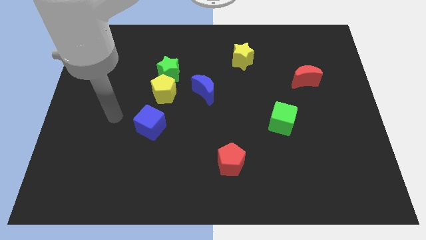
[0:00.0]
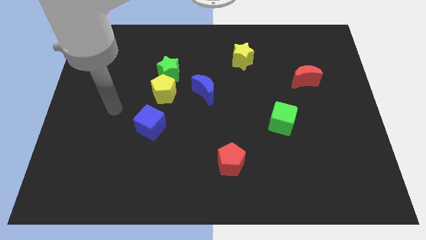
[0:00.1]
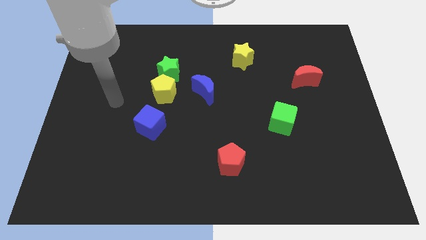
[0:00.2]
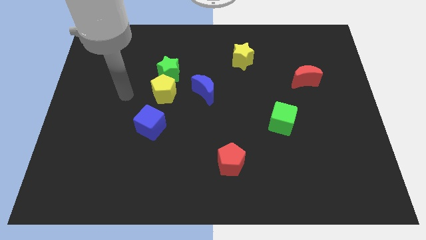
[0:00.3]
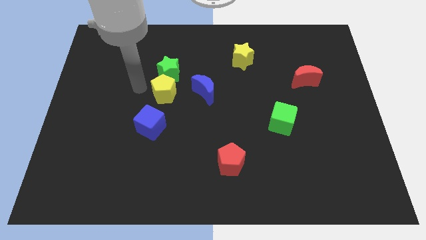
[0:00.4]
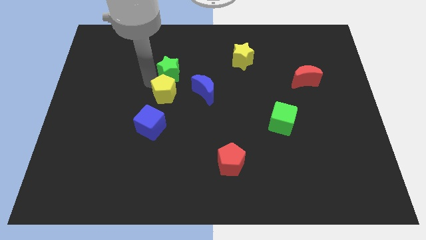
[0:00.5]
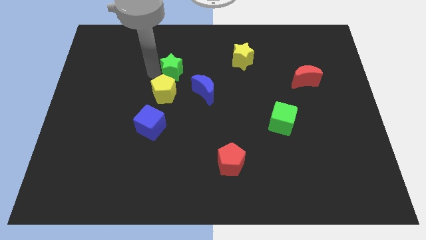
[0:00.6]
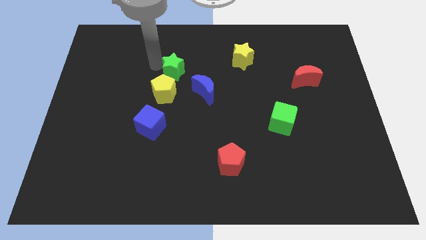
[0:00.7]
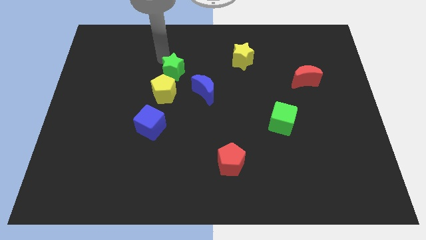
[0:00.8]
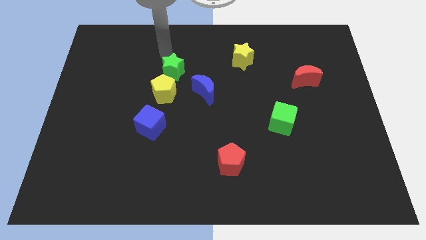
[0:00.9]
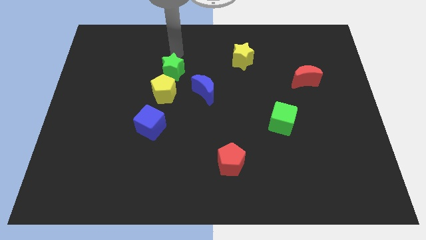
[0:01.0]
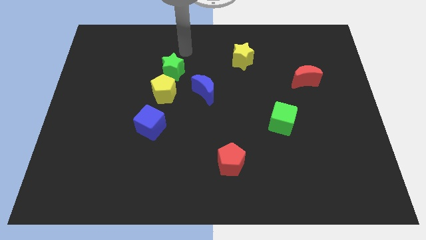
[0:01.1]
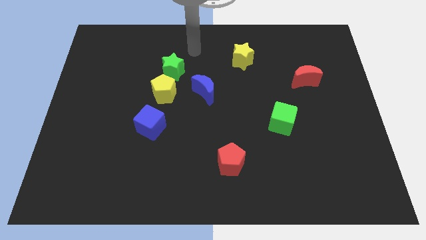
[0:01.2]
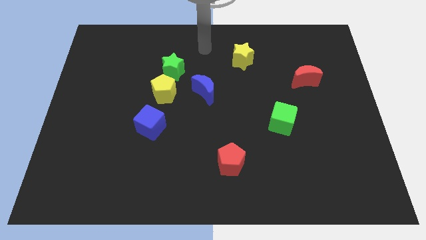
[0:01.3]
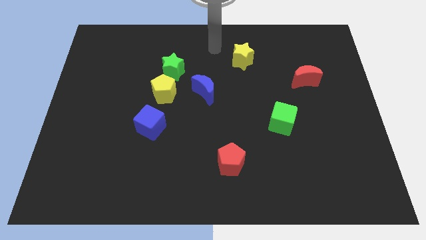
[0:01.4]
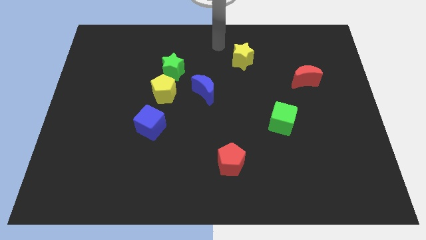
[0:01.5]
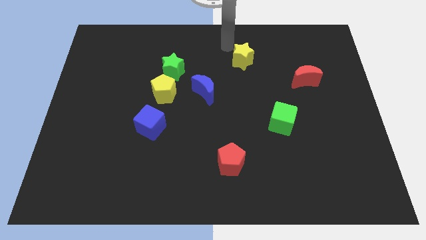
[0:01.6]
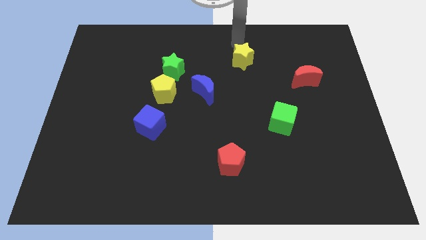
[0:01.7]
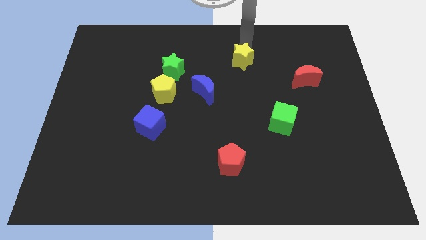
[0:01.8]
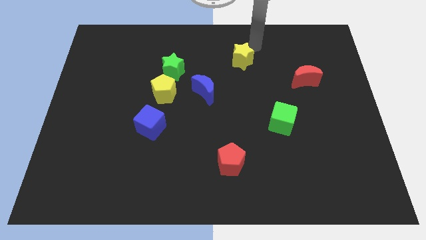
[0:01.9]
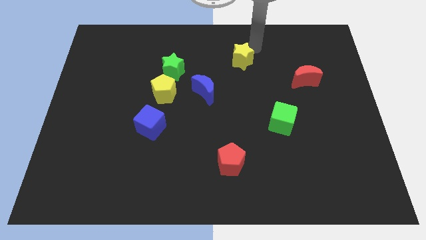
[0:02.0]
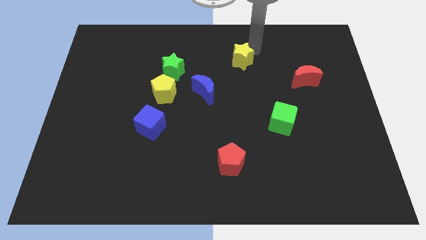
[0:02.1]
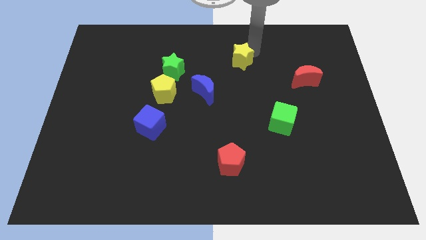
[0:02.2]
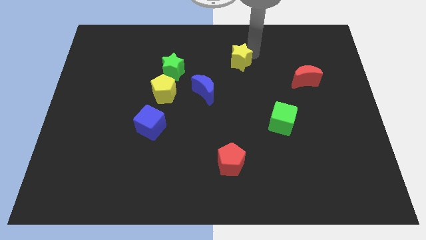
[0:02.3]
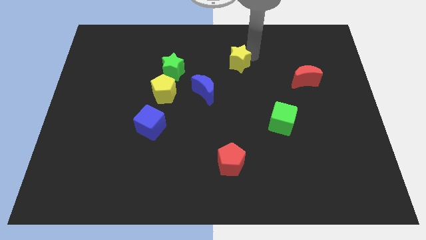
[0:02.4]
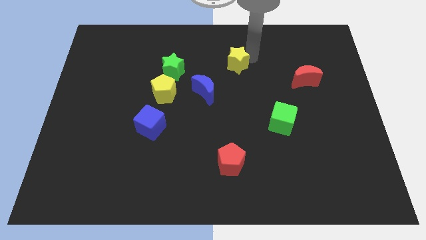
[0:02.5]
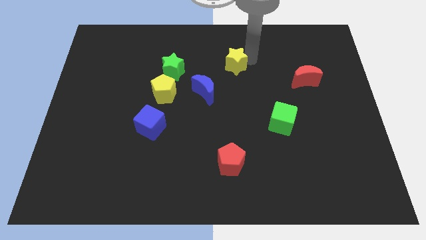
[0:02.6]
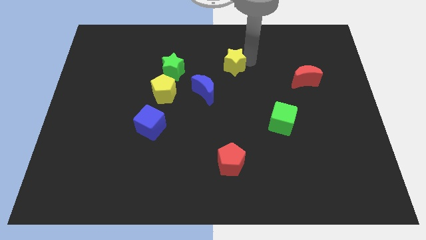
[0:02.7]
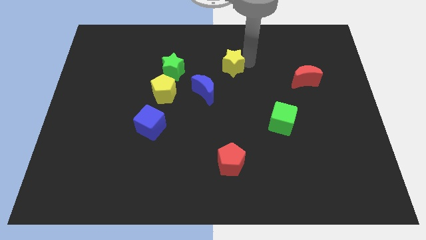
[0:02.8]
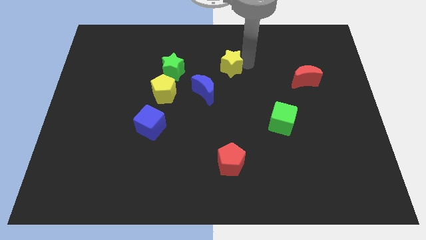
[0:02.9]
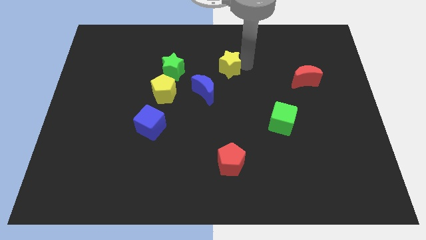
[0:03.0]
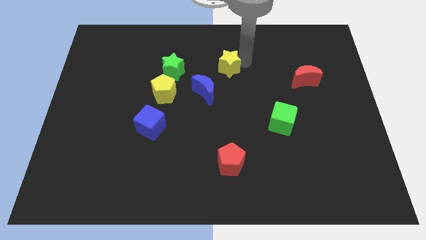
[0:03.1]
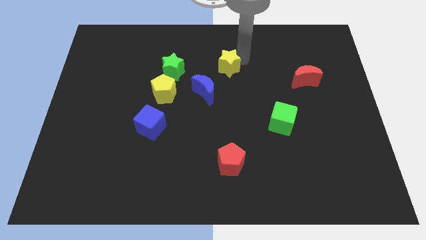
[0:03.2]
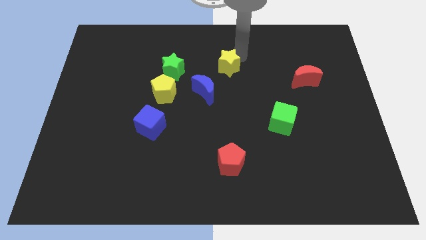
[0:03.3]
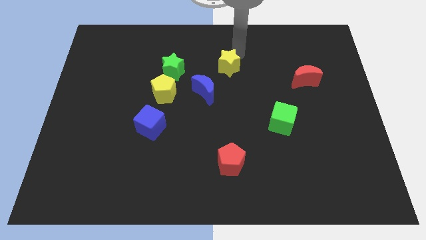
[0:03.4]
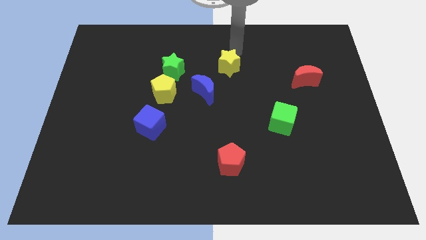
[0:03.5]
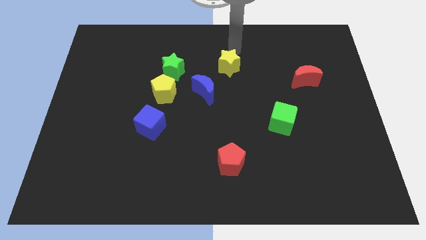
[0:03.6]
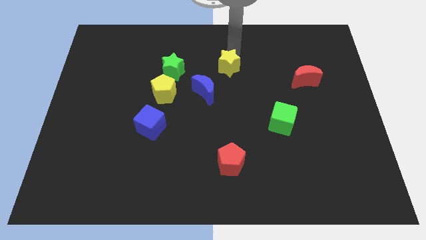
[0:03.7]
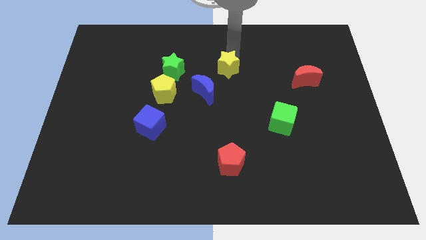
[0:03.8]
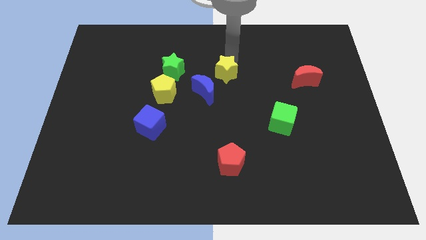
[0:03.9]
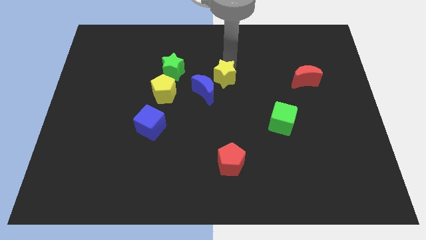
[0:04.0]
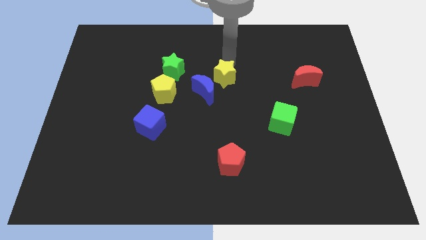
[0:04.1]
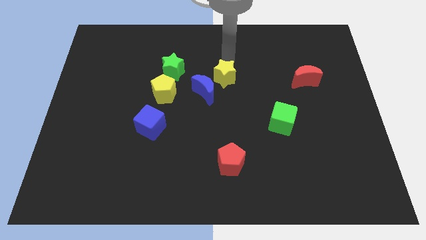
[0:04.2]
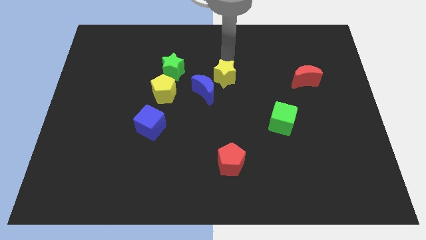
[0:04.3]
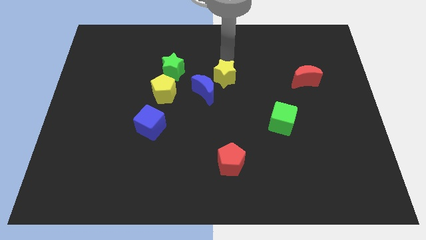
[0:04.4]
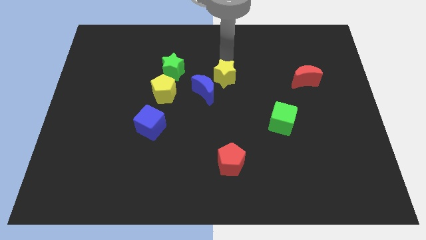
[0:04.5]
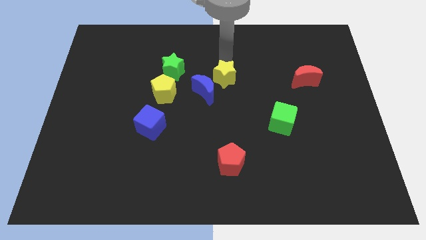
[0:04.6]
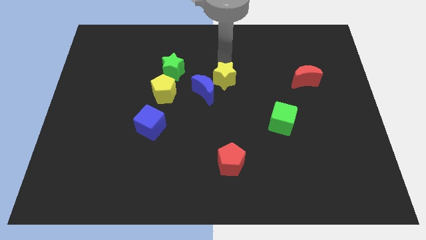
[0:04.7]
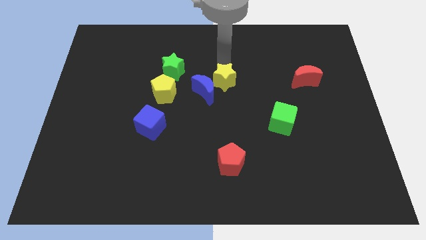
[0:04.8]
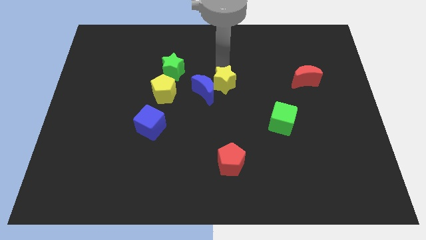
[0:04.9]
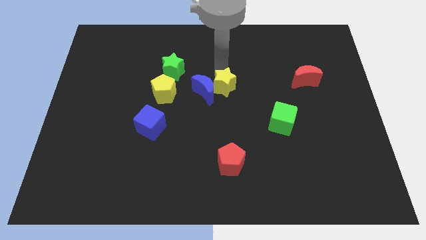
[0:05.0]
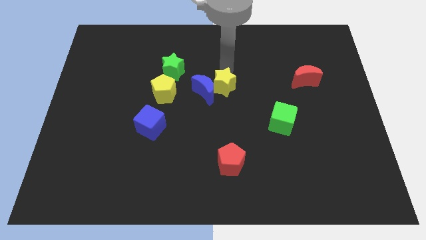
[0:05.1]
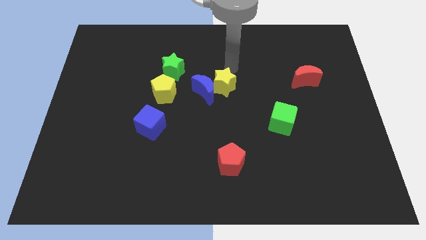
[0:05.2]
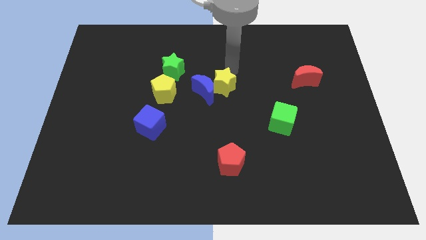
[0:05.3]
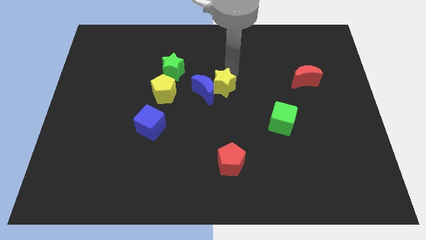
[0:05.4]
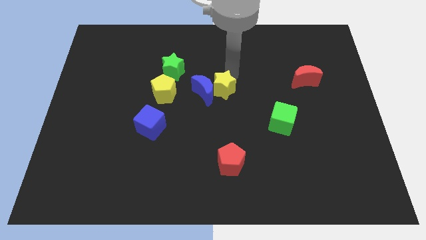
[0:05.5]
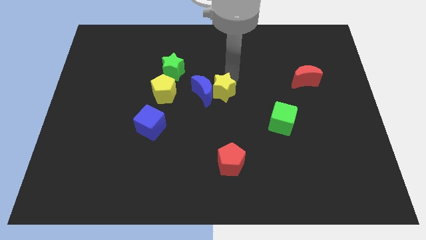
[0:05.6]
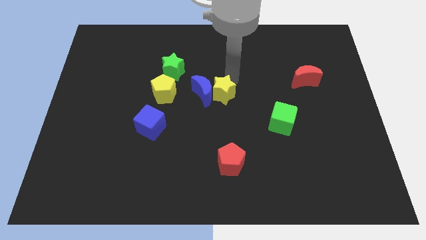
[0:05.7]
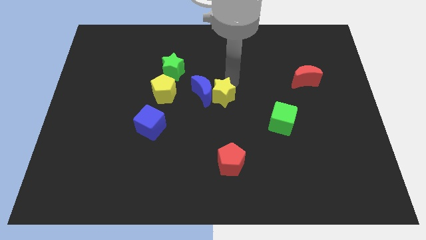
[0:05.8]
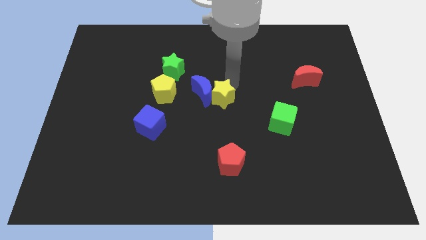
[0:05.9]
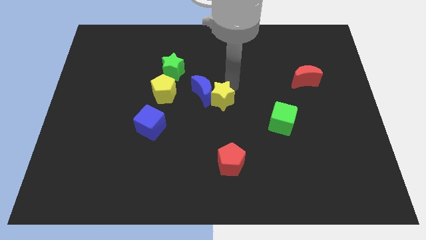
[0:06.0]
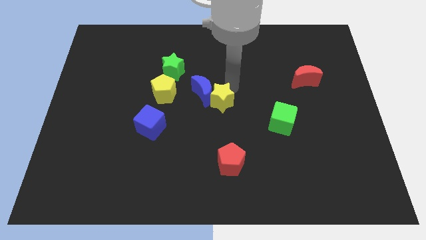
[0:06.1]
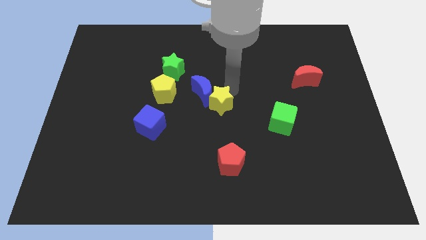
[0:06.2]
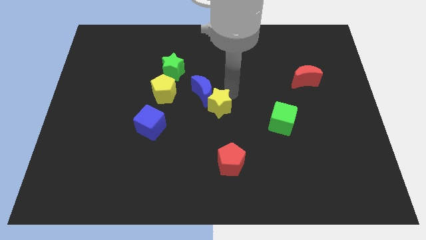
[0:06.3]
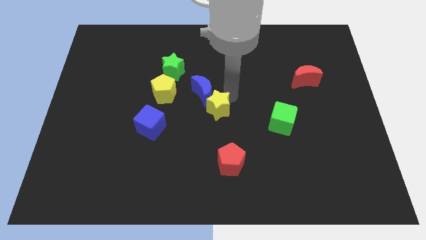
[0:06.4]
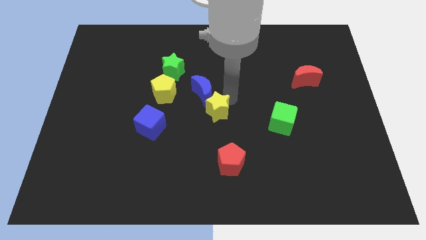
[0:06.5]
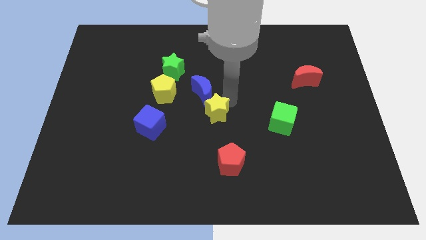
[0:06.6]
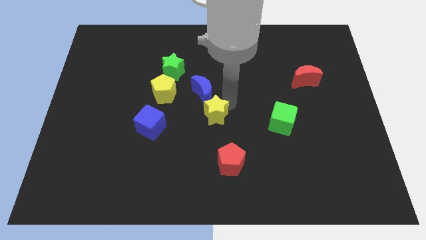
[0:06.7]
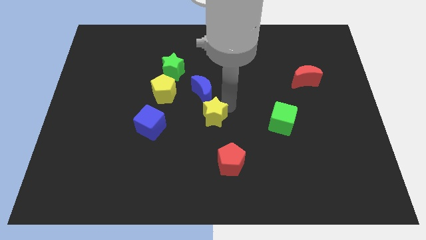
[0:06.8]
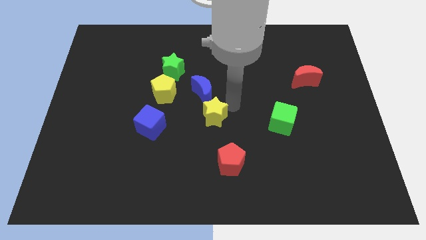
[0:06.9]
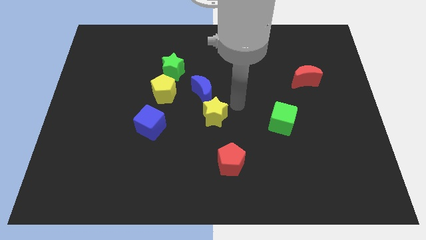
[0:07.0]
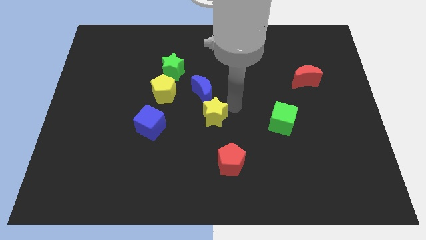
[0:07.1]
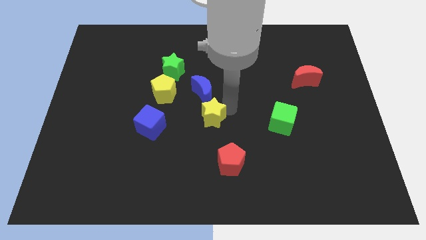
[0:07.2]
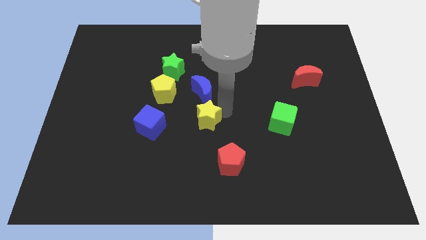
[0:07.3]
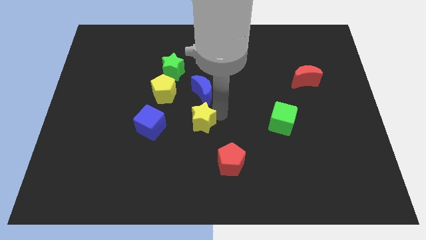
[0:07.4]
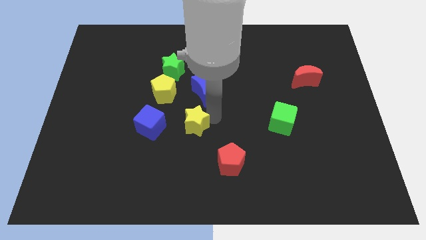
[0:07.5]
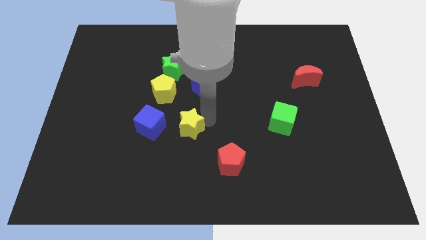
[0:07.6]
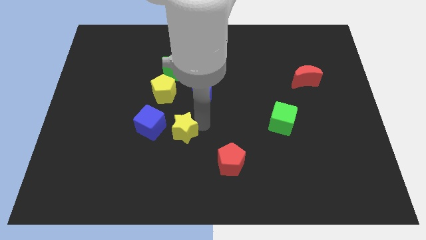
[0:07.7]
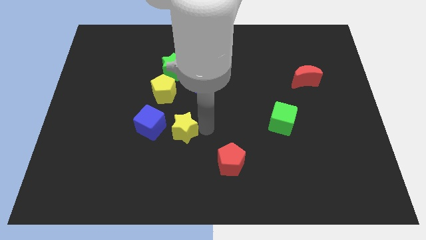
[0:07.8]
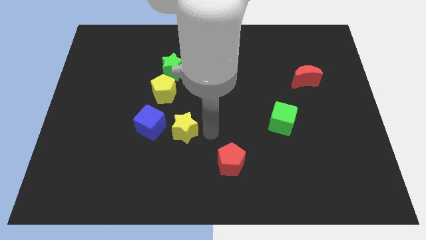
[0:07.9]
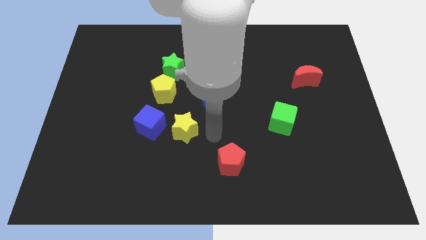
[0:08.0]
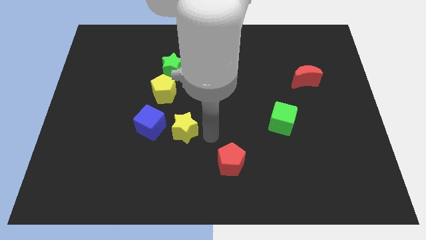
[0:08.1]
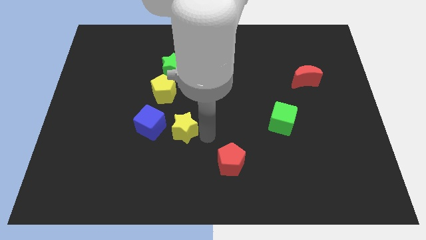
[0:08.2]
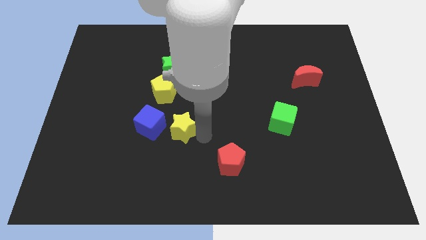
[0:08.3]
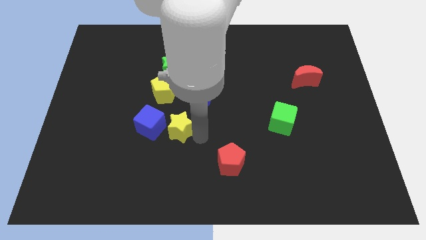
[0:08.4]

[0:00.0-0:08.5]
put the yellow star to the bottom of the yellow pentagon
